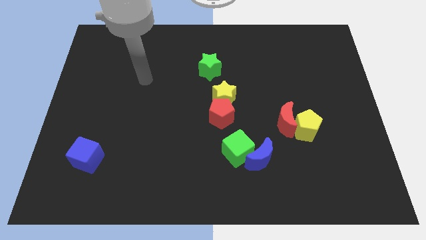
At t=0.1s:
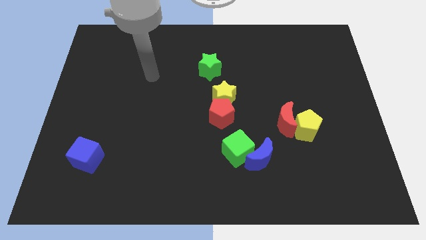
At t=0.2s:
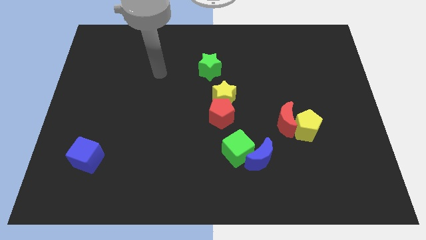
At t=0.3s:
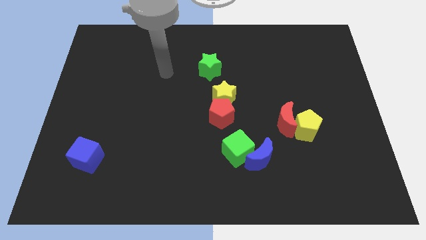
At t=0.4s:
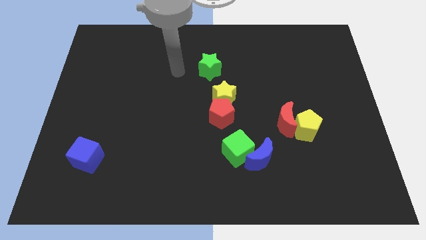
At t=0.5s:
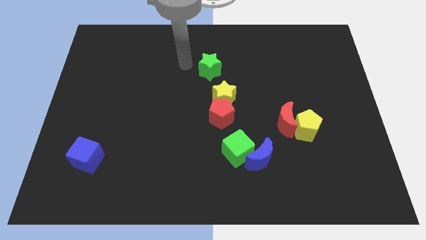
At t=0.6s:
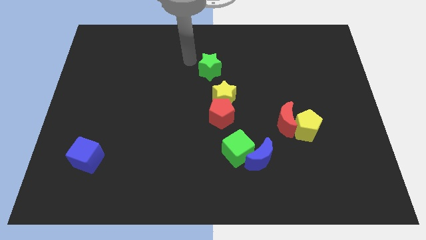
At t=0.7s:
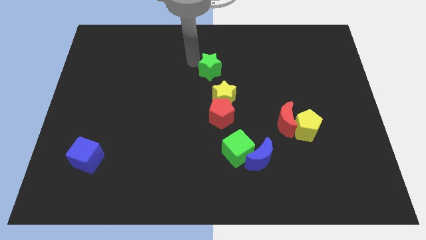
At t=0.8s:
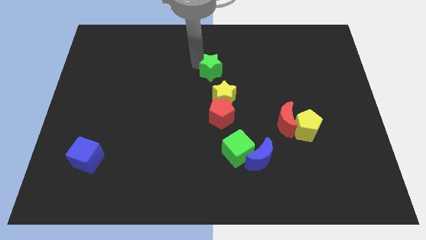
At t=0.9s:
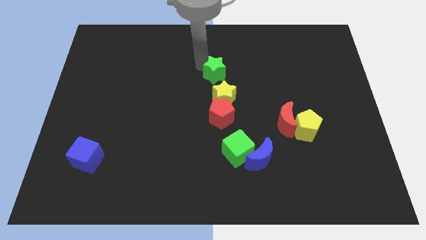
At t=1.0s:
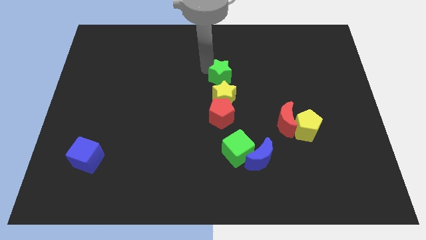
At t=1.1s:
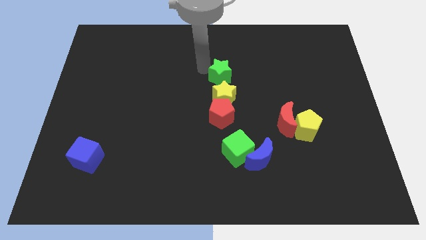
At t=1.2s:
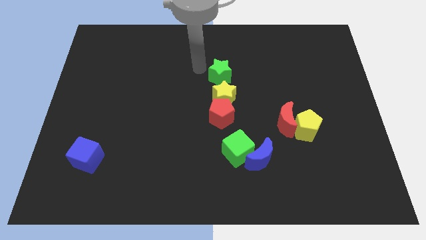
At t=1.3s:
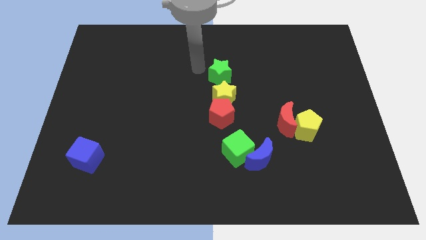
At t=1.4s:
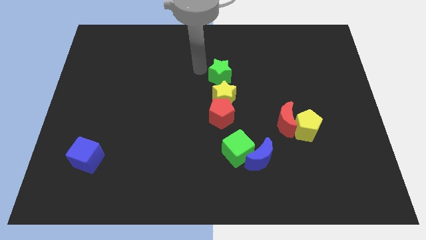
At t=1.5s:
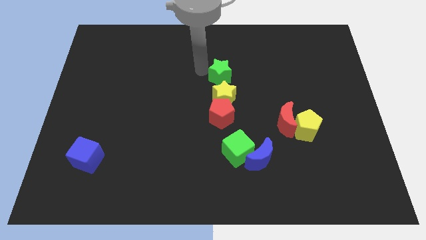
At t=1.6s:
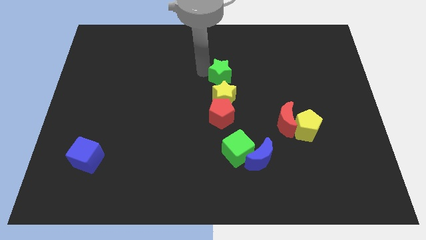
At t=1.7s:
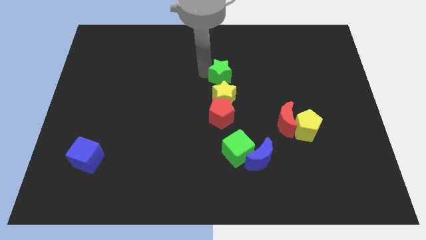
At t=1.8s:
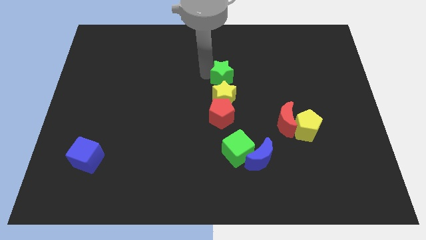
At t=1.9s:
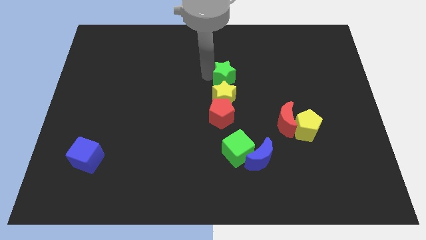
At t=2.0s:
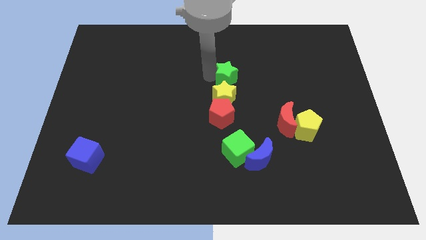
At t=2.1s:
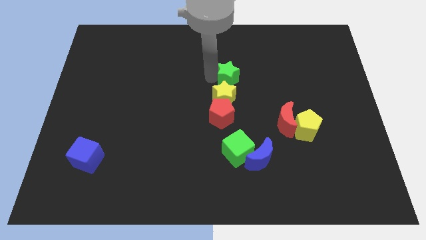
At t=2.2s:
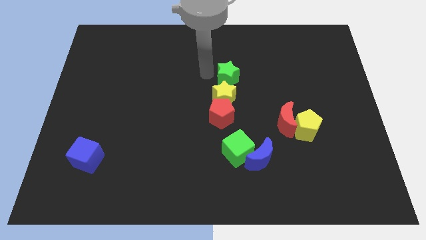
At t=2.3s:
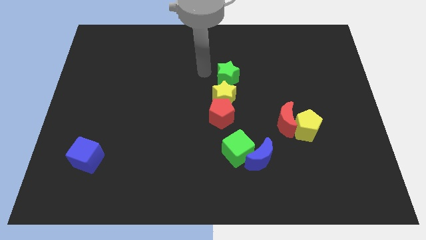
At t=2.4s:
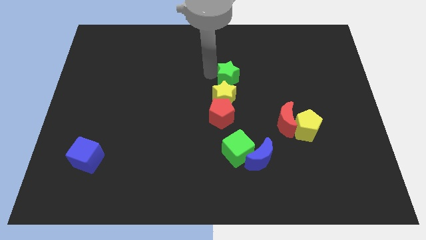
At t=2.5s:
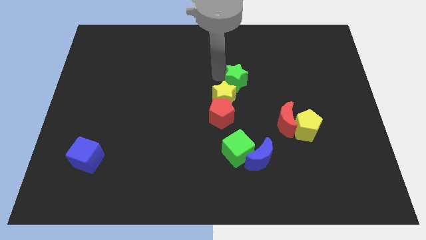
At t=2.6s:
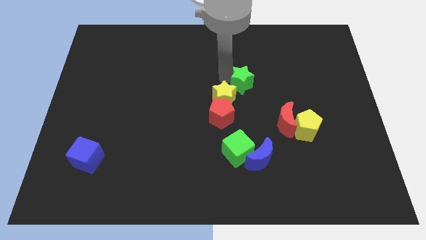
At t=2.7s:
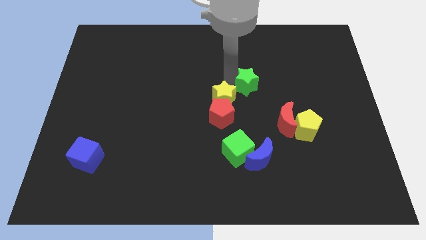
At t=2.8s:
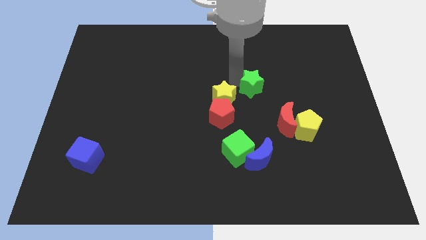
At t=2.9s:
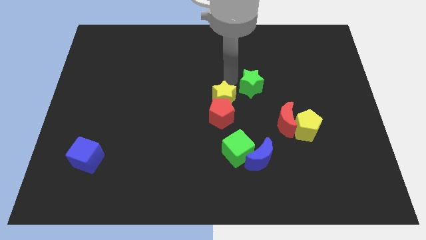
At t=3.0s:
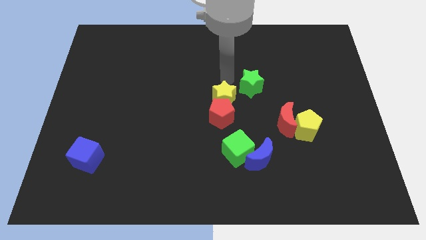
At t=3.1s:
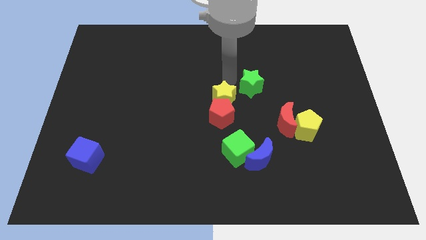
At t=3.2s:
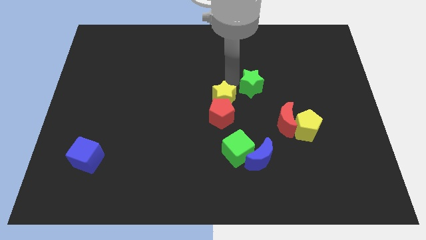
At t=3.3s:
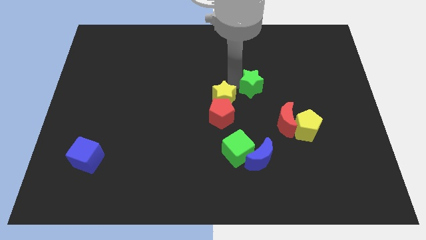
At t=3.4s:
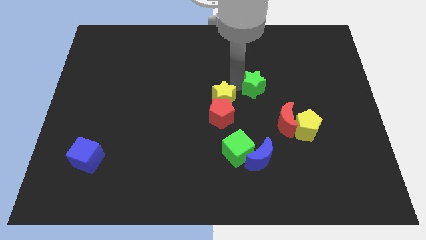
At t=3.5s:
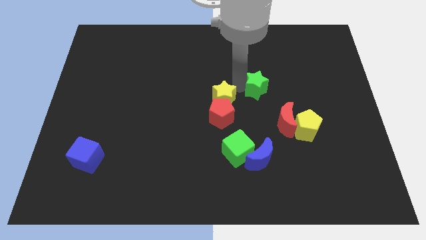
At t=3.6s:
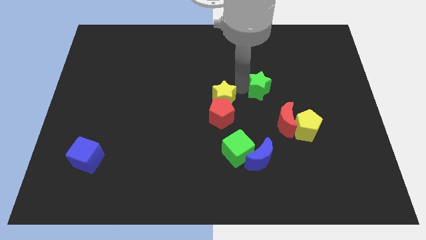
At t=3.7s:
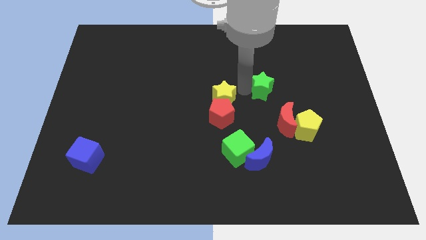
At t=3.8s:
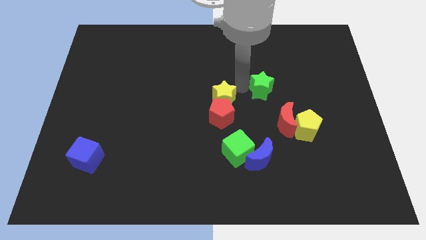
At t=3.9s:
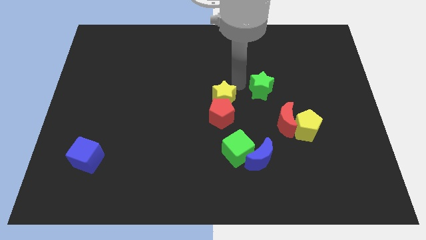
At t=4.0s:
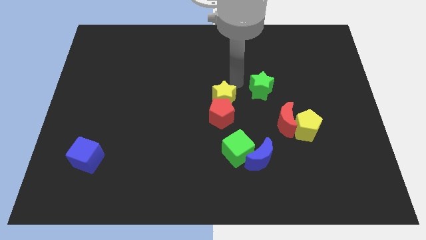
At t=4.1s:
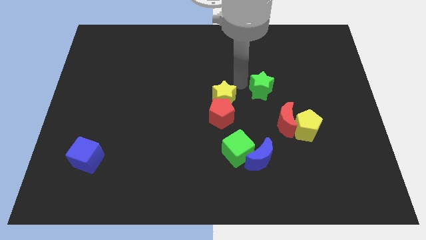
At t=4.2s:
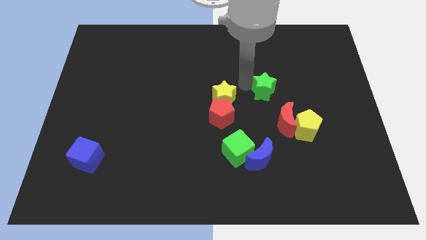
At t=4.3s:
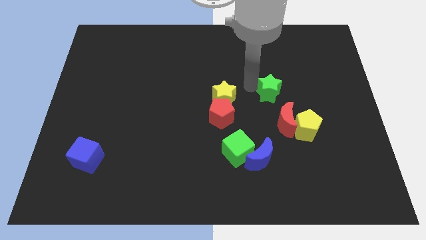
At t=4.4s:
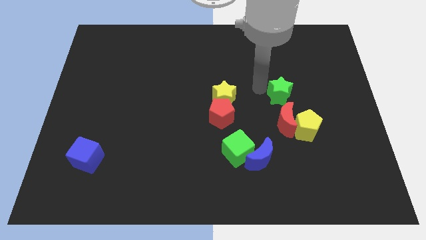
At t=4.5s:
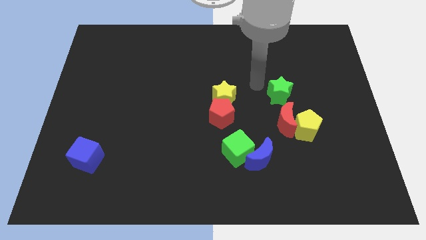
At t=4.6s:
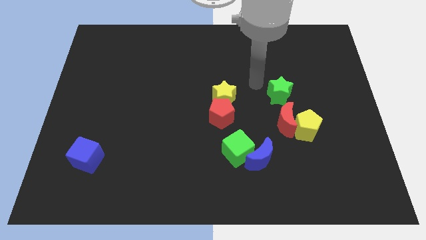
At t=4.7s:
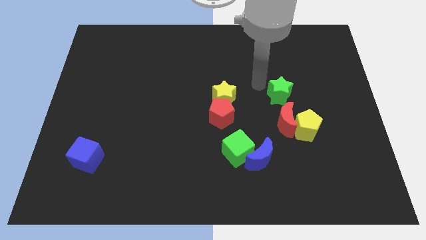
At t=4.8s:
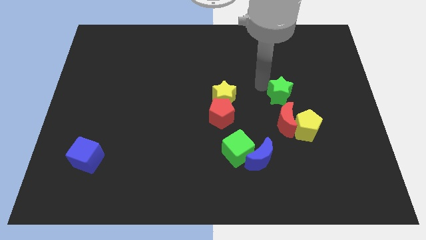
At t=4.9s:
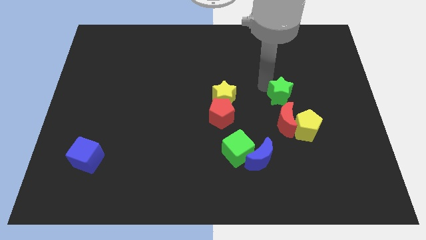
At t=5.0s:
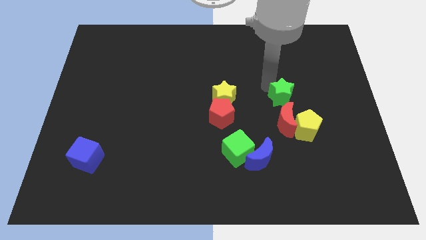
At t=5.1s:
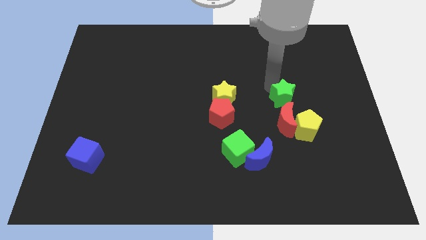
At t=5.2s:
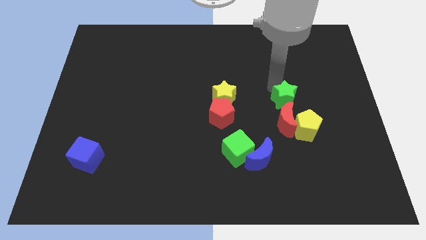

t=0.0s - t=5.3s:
move the green star diagonally up and to the right of the red moon

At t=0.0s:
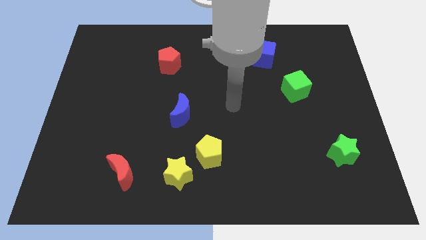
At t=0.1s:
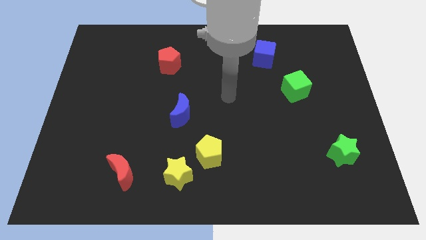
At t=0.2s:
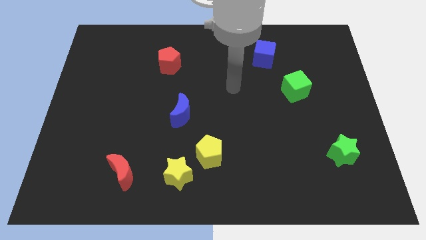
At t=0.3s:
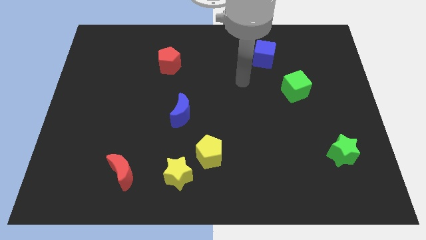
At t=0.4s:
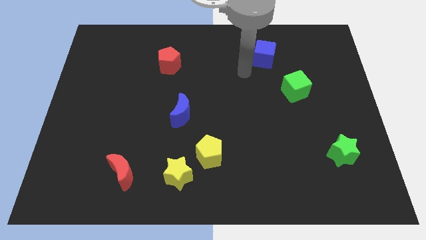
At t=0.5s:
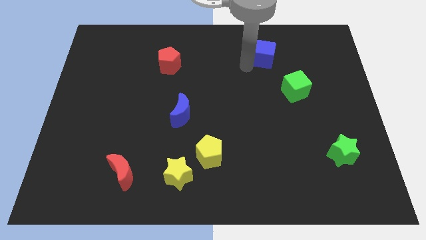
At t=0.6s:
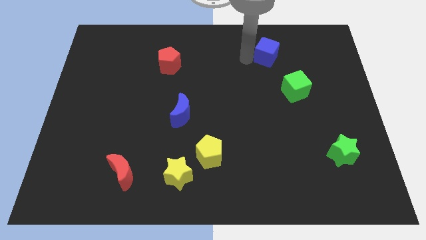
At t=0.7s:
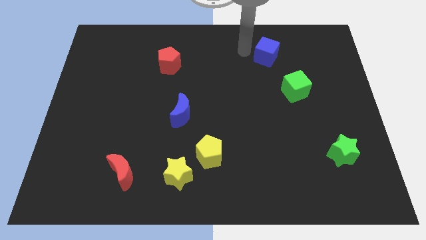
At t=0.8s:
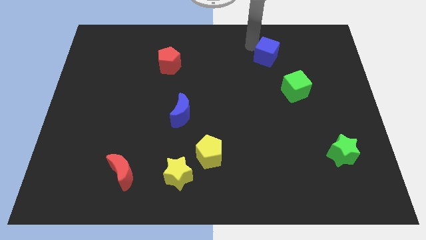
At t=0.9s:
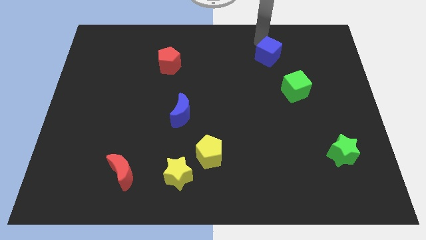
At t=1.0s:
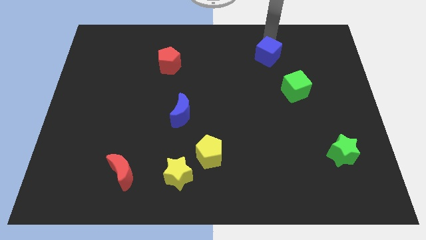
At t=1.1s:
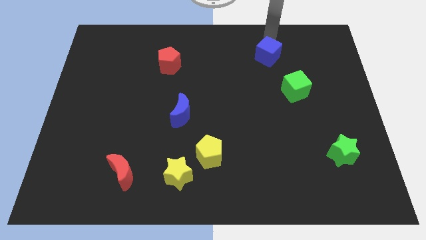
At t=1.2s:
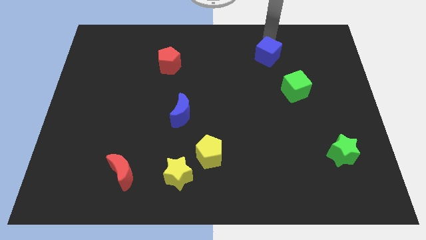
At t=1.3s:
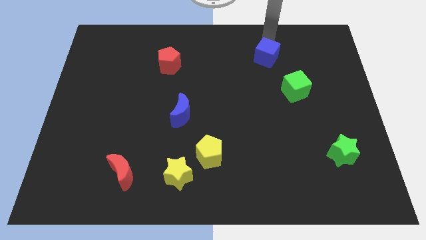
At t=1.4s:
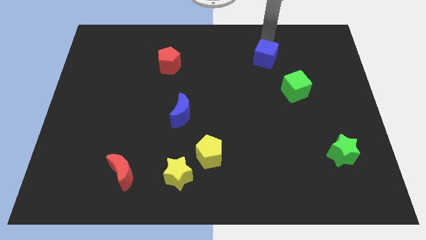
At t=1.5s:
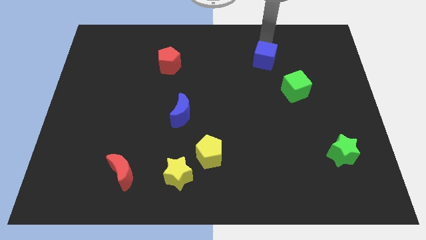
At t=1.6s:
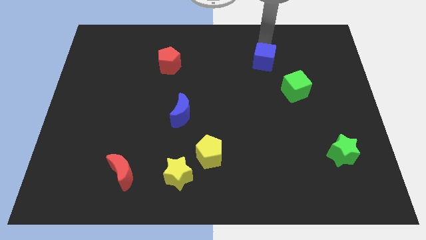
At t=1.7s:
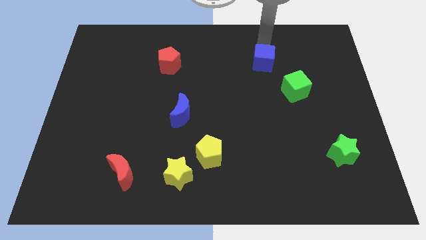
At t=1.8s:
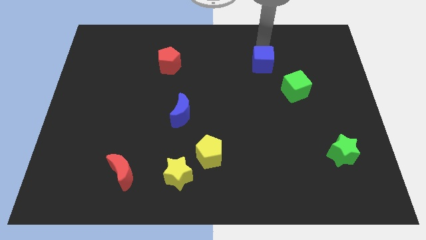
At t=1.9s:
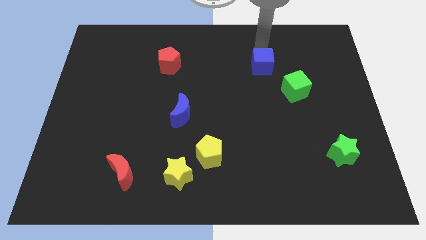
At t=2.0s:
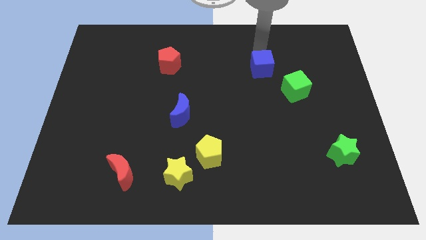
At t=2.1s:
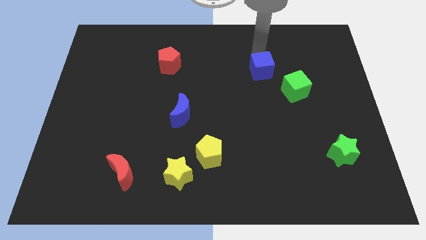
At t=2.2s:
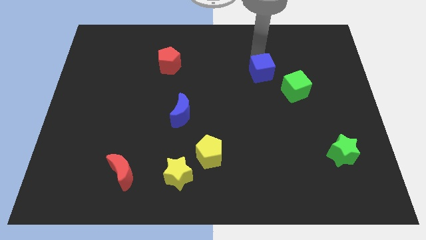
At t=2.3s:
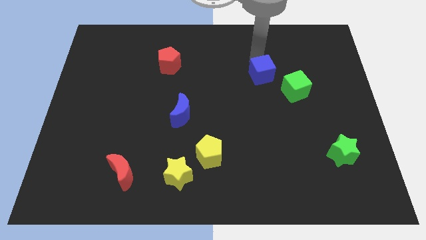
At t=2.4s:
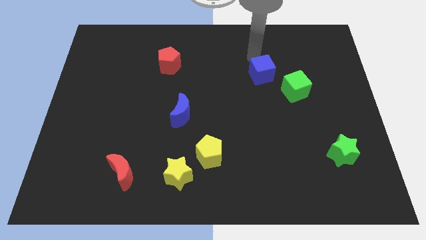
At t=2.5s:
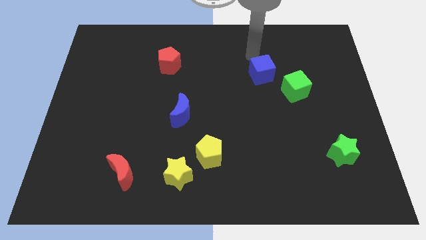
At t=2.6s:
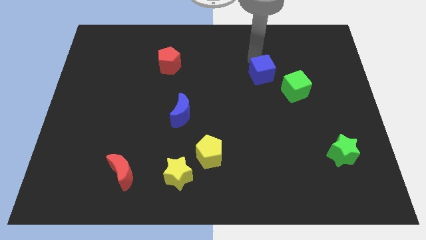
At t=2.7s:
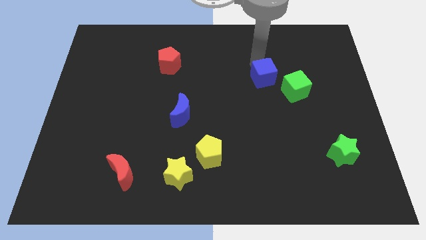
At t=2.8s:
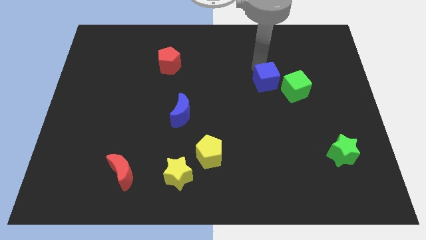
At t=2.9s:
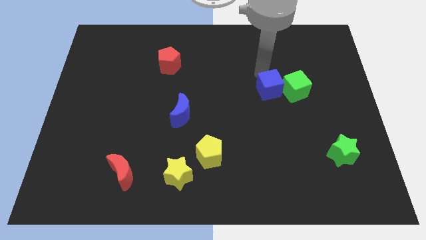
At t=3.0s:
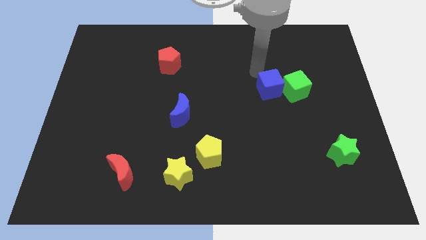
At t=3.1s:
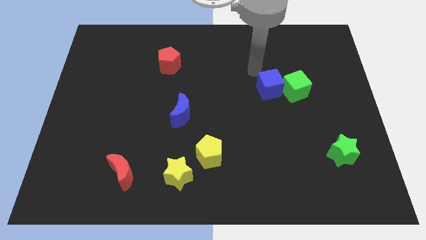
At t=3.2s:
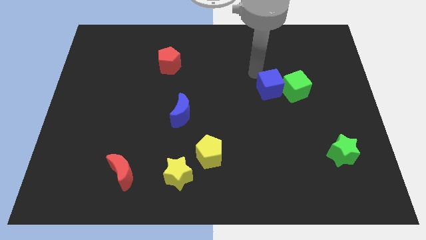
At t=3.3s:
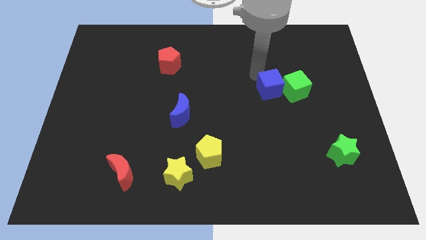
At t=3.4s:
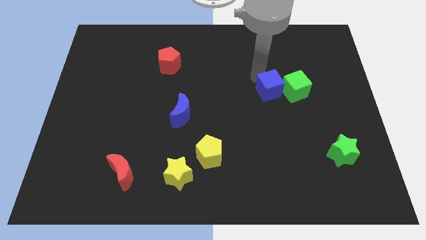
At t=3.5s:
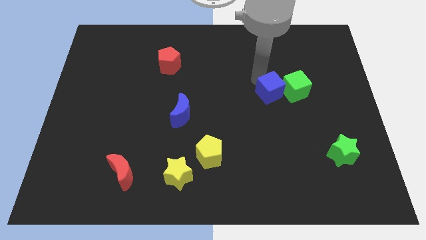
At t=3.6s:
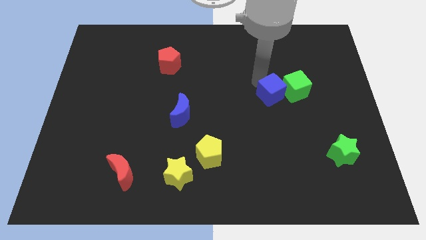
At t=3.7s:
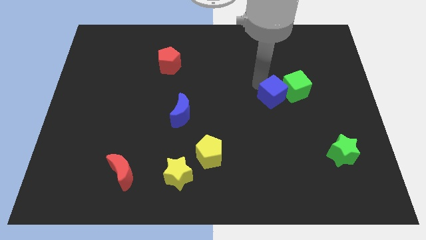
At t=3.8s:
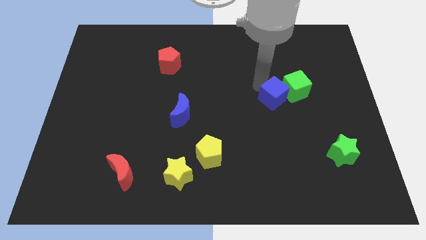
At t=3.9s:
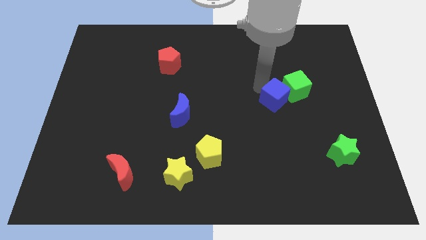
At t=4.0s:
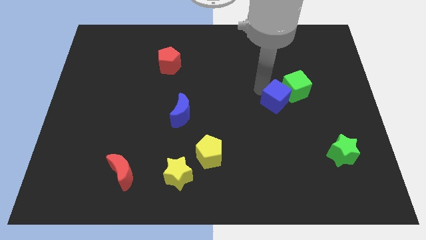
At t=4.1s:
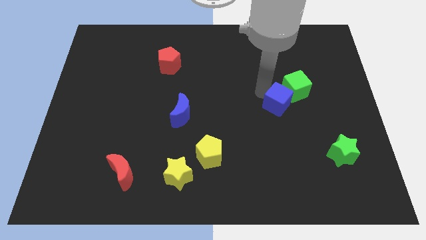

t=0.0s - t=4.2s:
slide the blue cube to the bottom side of the green cube
